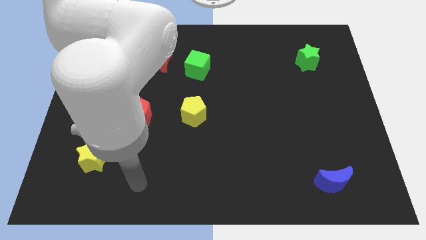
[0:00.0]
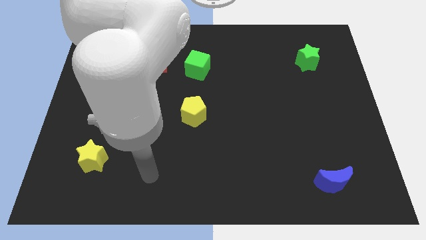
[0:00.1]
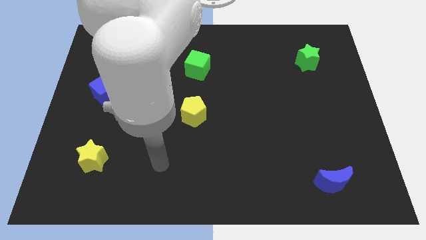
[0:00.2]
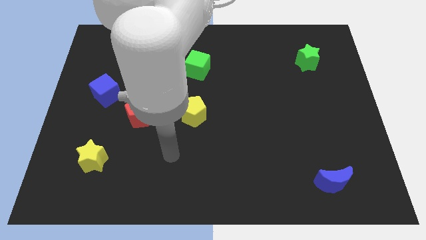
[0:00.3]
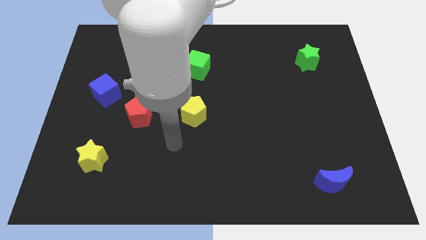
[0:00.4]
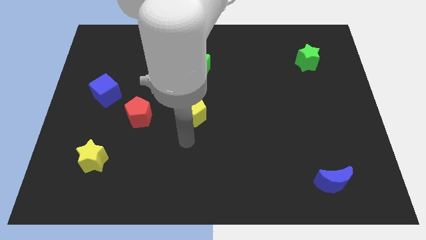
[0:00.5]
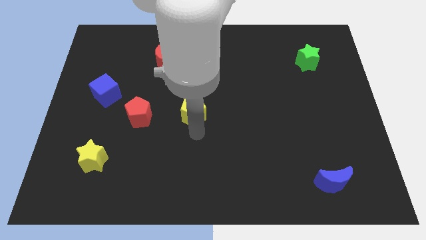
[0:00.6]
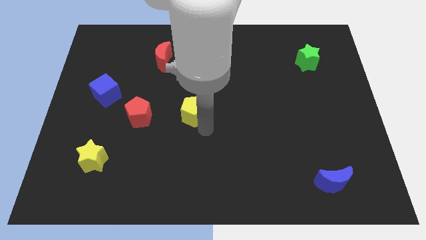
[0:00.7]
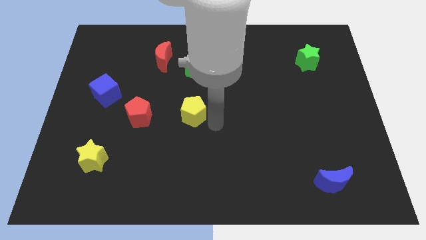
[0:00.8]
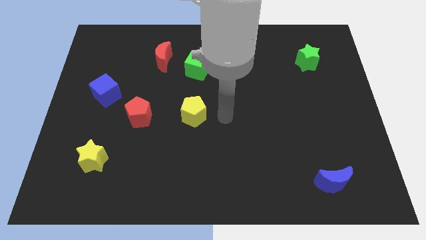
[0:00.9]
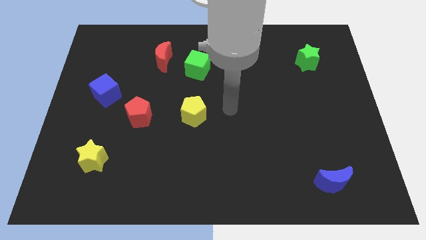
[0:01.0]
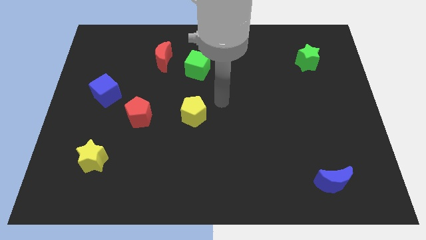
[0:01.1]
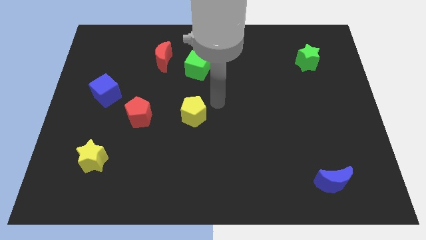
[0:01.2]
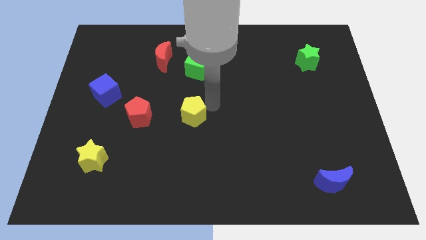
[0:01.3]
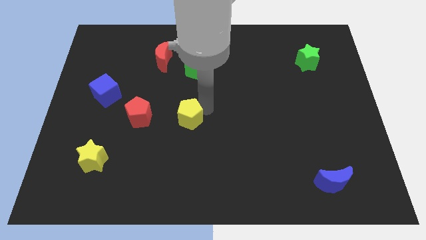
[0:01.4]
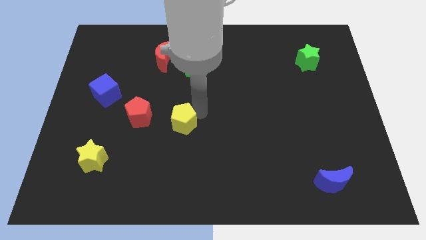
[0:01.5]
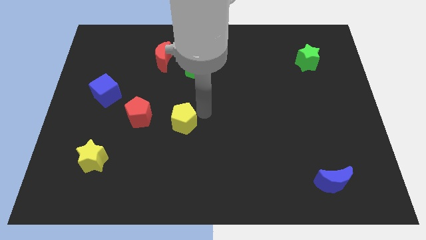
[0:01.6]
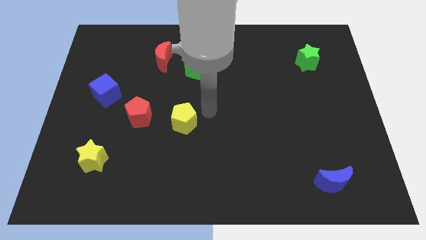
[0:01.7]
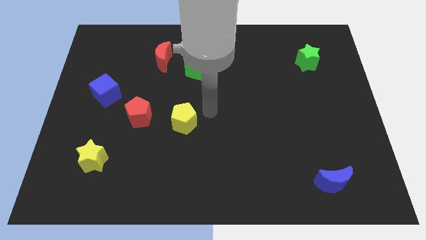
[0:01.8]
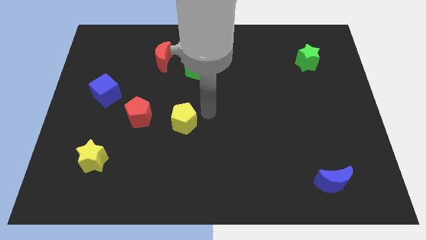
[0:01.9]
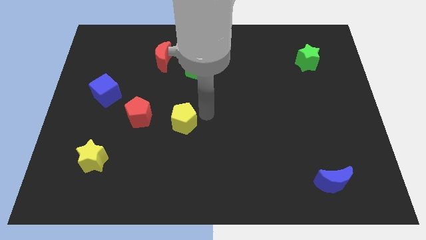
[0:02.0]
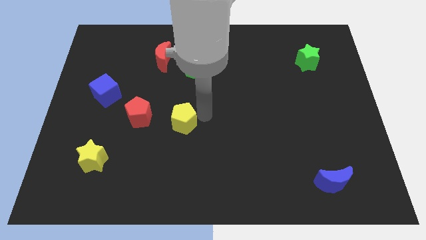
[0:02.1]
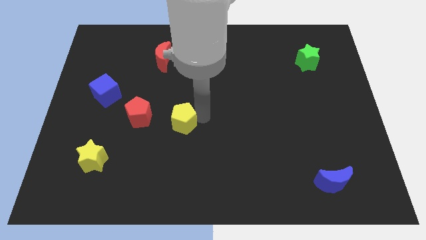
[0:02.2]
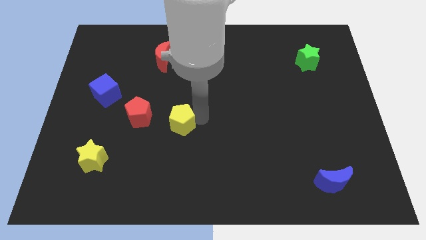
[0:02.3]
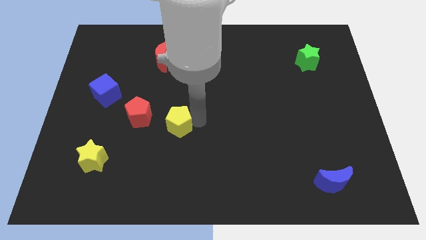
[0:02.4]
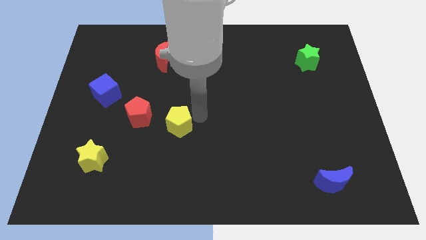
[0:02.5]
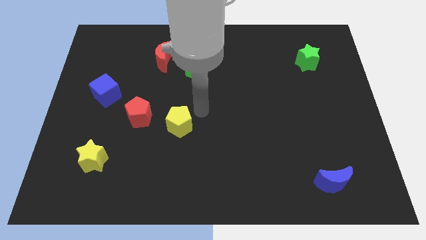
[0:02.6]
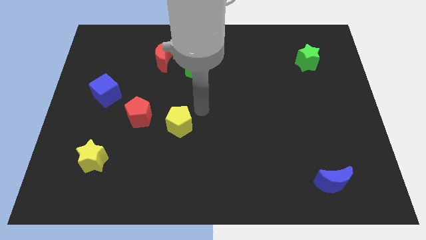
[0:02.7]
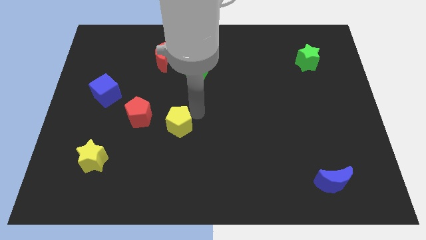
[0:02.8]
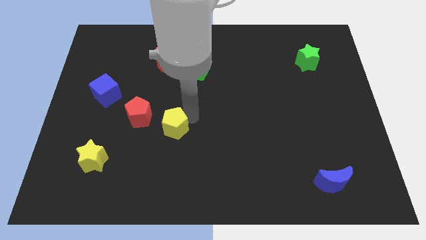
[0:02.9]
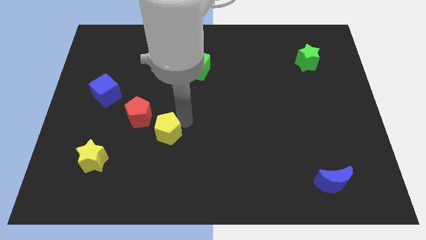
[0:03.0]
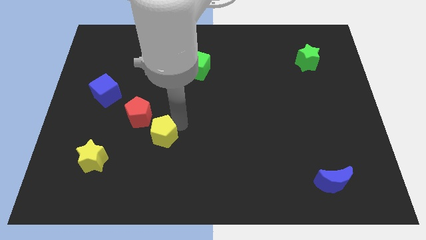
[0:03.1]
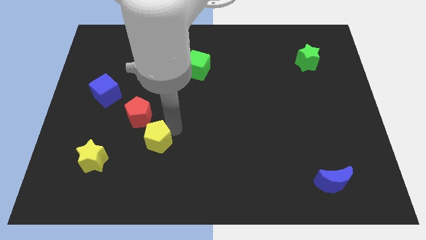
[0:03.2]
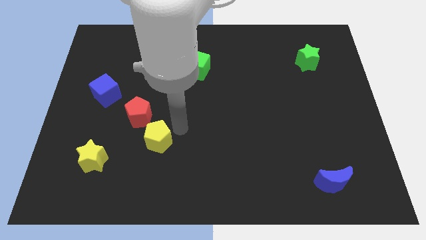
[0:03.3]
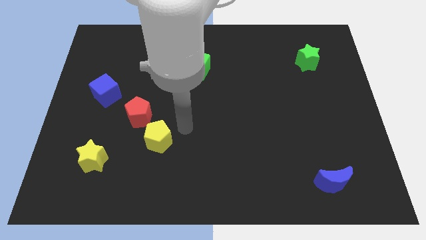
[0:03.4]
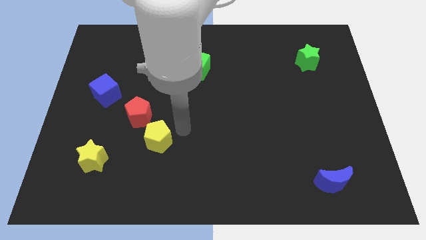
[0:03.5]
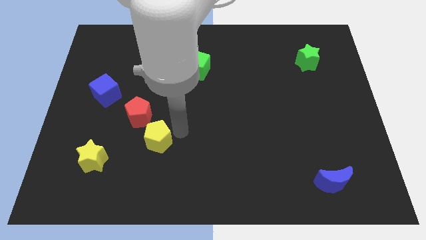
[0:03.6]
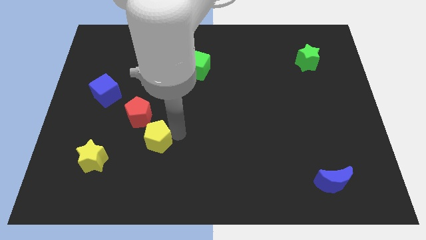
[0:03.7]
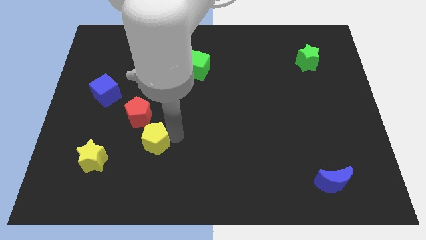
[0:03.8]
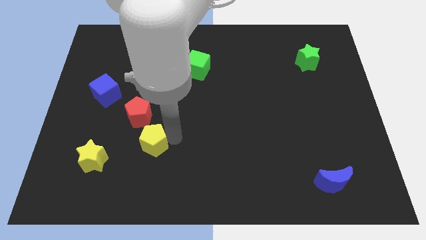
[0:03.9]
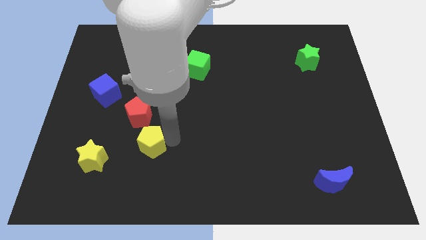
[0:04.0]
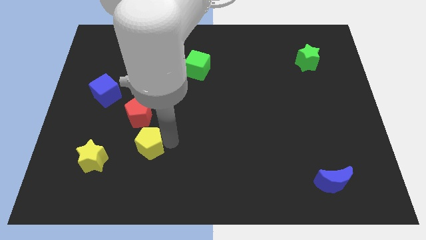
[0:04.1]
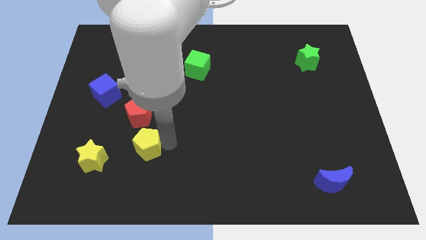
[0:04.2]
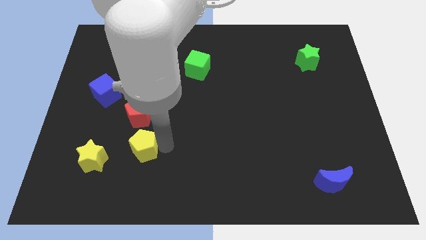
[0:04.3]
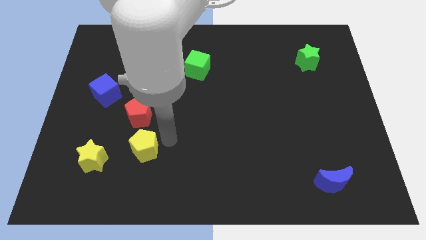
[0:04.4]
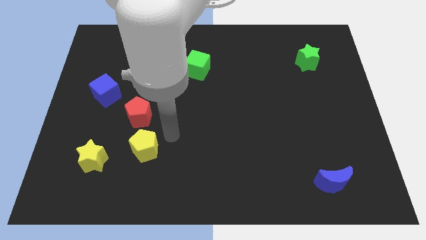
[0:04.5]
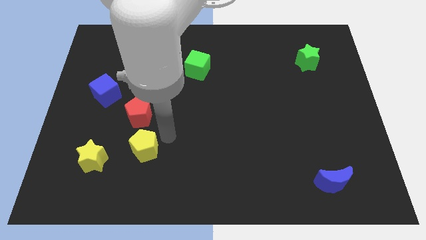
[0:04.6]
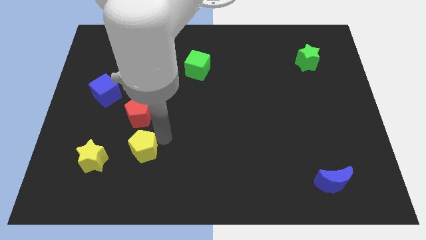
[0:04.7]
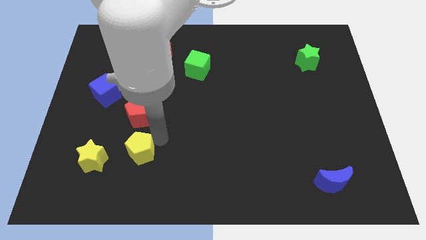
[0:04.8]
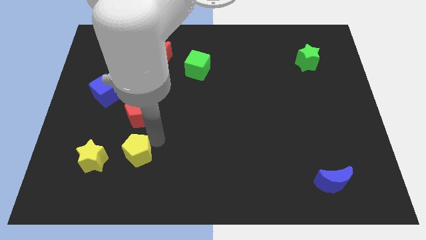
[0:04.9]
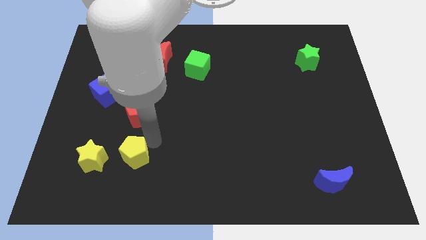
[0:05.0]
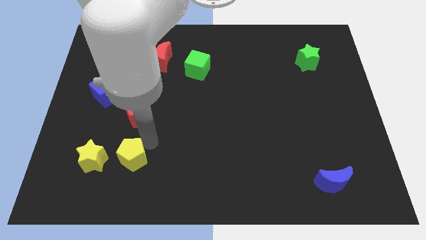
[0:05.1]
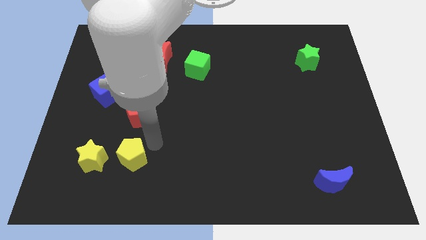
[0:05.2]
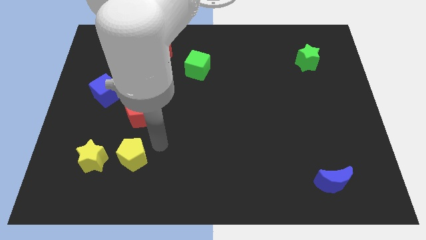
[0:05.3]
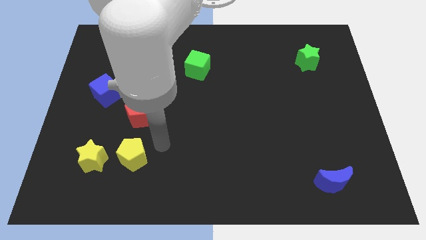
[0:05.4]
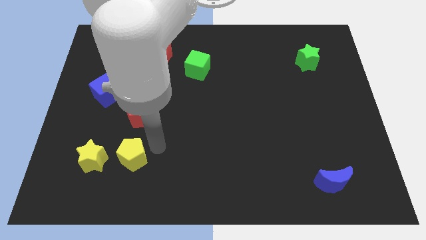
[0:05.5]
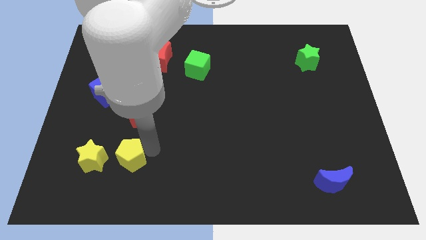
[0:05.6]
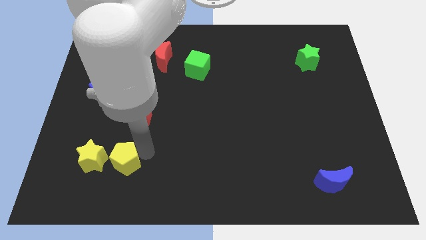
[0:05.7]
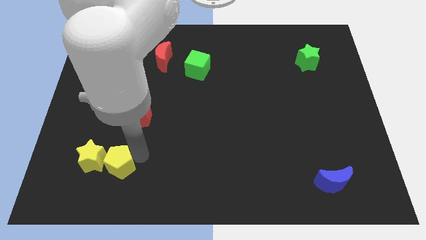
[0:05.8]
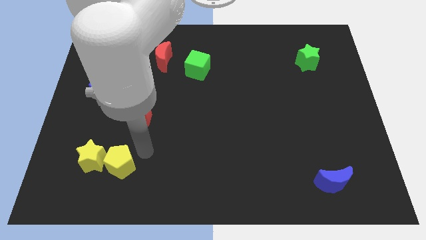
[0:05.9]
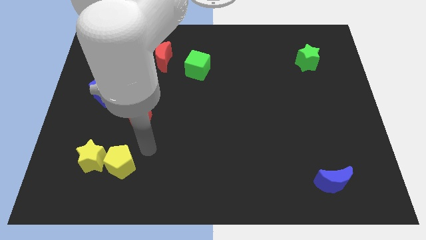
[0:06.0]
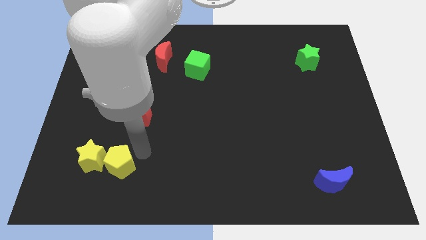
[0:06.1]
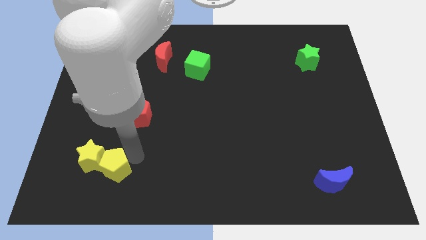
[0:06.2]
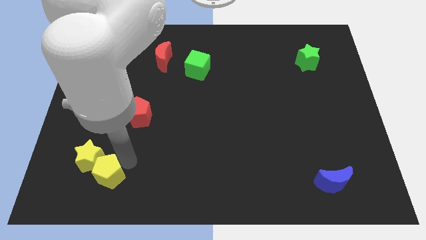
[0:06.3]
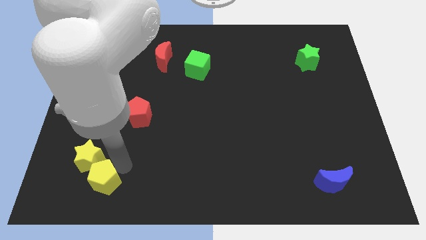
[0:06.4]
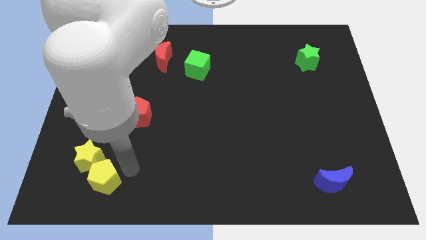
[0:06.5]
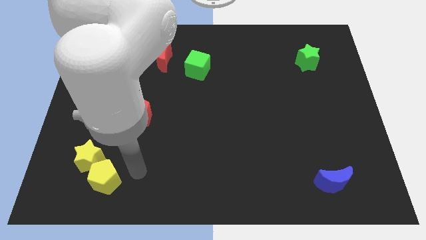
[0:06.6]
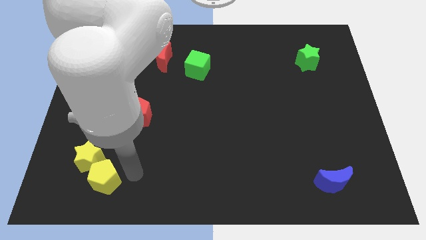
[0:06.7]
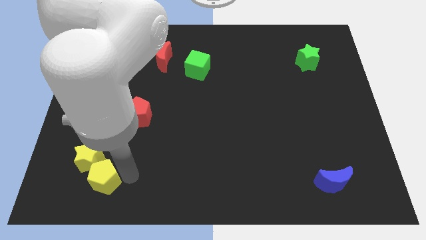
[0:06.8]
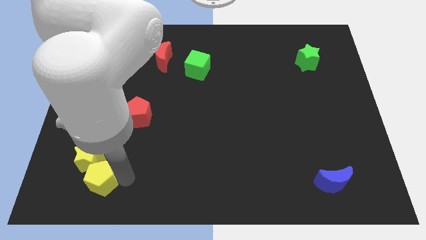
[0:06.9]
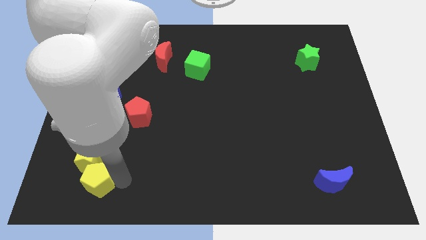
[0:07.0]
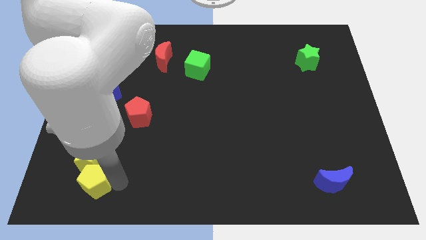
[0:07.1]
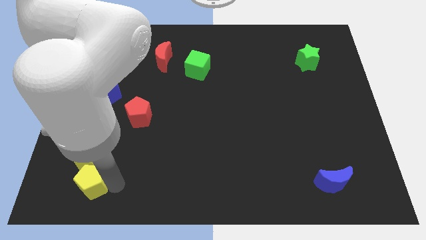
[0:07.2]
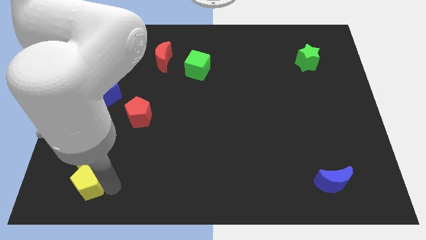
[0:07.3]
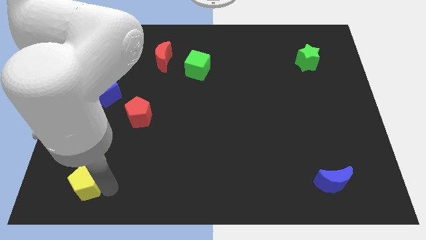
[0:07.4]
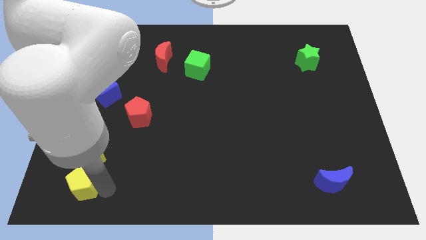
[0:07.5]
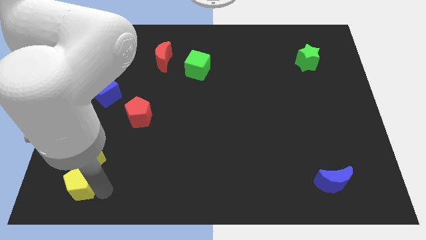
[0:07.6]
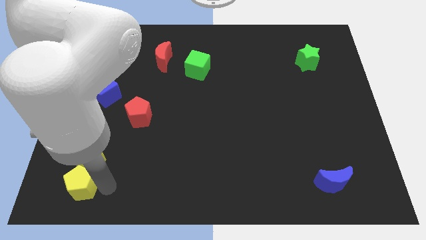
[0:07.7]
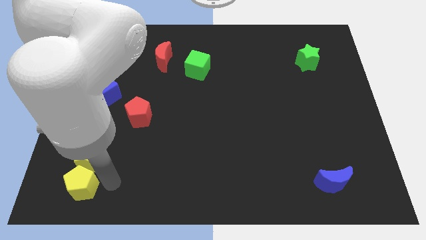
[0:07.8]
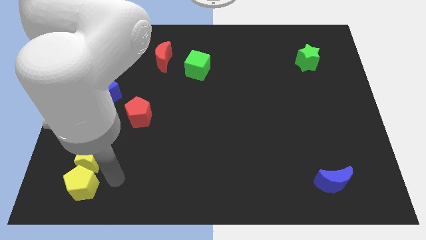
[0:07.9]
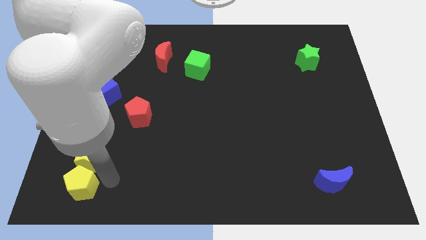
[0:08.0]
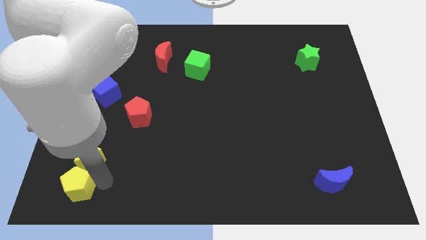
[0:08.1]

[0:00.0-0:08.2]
put the yellow pentagon to the bottom left of the board
